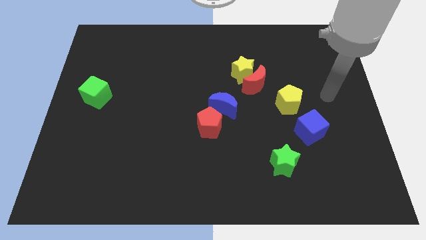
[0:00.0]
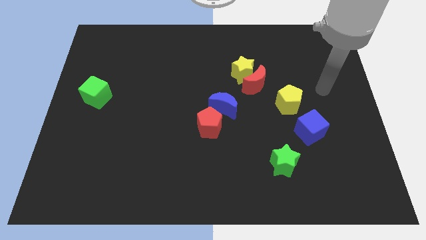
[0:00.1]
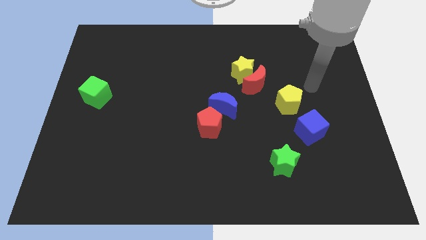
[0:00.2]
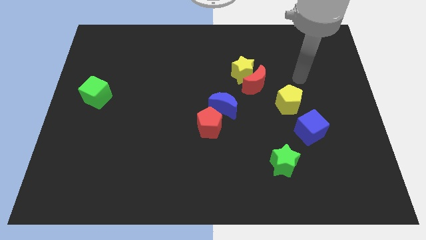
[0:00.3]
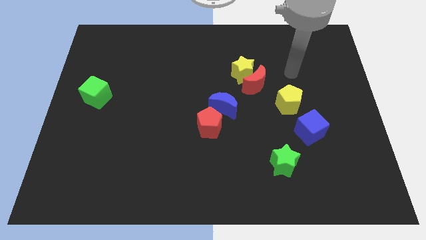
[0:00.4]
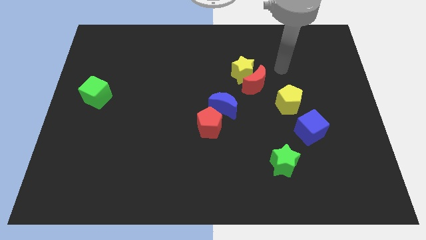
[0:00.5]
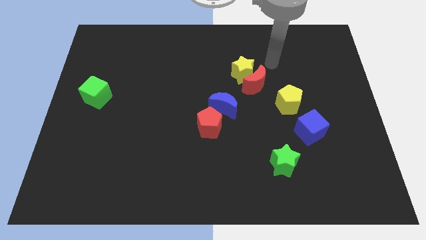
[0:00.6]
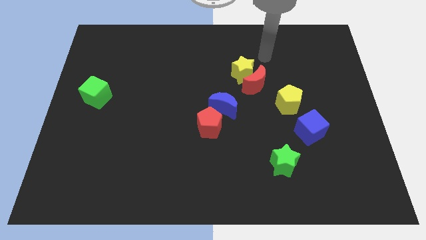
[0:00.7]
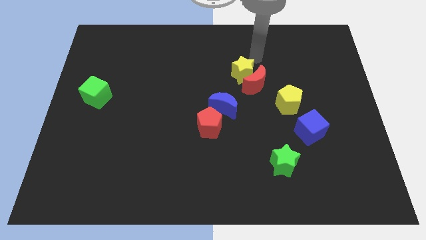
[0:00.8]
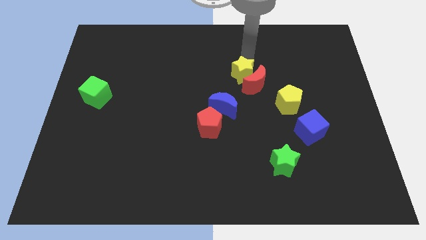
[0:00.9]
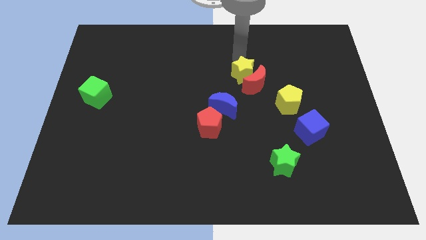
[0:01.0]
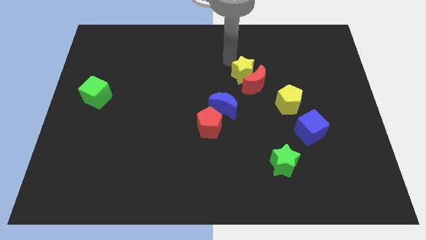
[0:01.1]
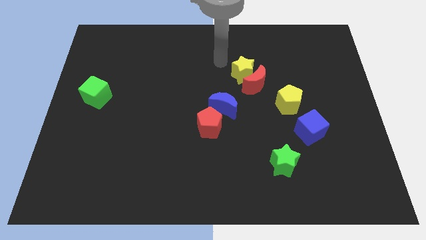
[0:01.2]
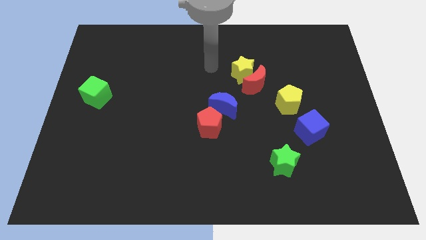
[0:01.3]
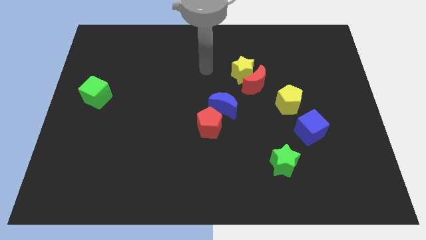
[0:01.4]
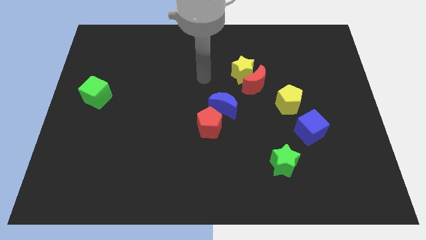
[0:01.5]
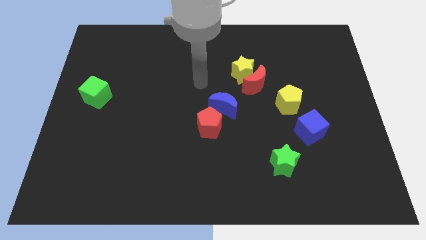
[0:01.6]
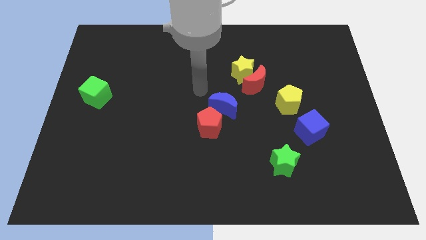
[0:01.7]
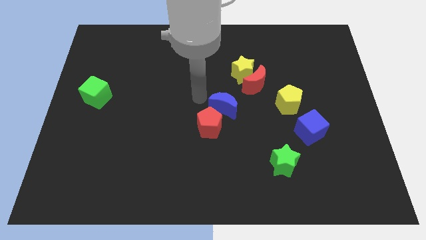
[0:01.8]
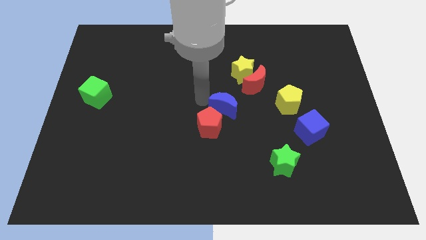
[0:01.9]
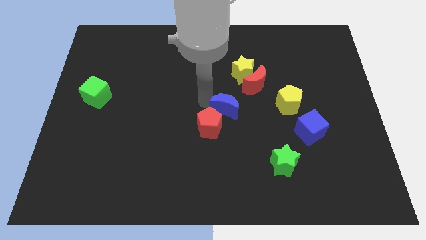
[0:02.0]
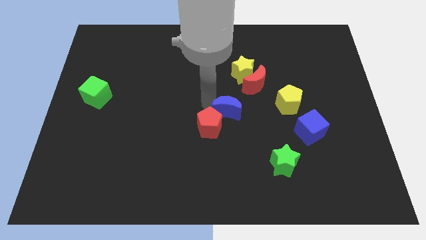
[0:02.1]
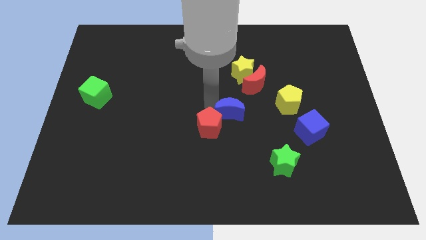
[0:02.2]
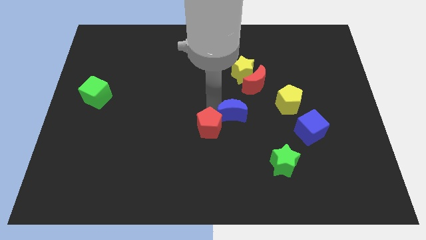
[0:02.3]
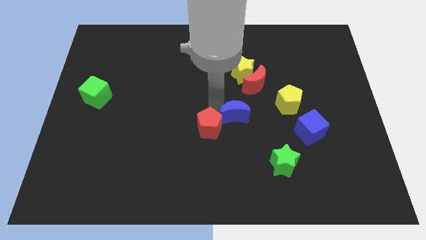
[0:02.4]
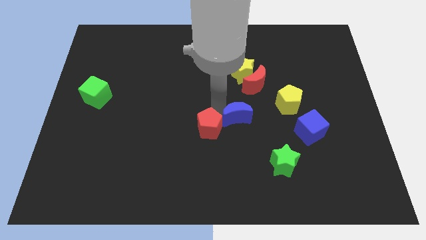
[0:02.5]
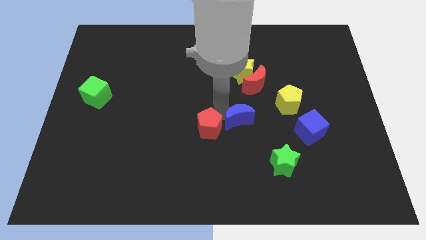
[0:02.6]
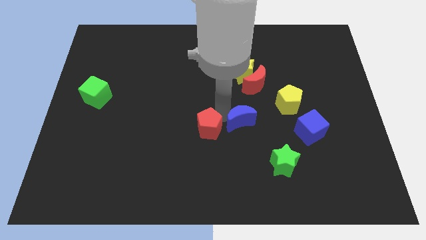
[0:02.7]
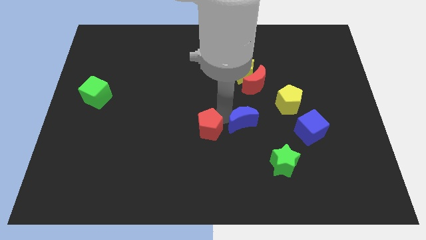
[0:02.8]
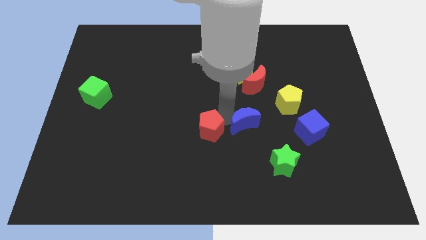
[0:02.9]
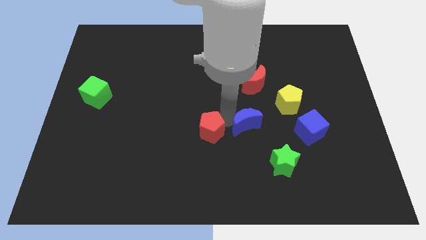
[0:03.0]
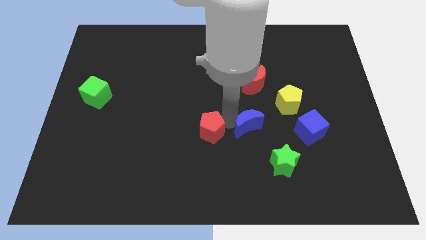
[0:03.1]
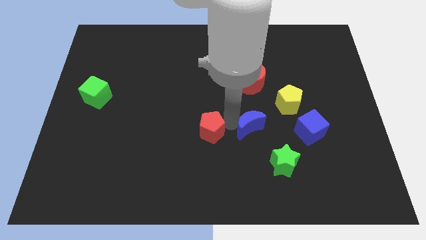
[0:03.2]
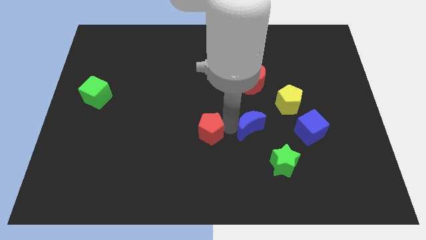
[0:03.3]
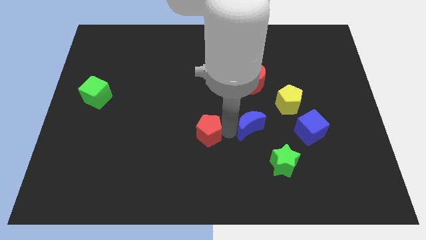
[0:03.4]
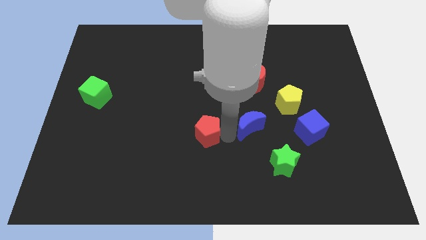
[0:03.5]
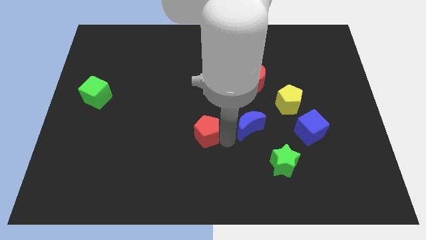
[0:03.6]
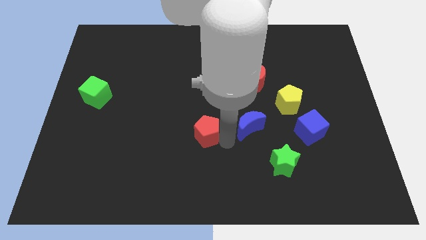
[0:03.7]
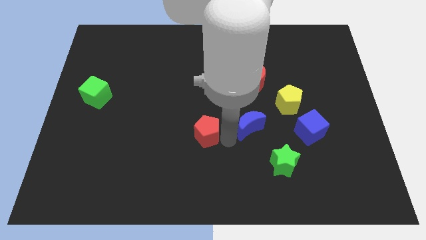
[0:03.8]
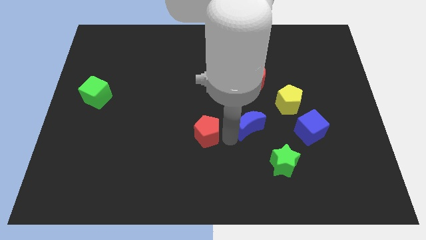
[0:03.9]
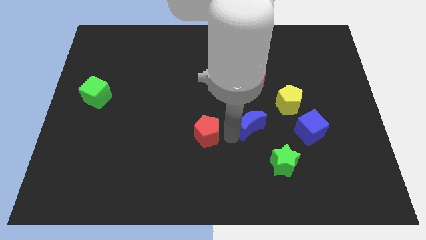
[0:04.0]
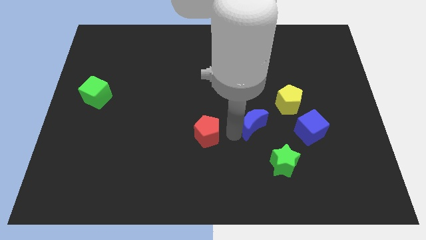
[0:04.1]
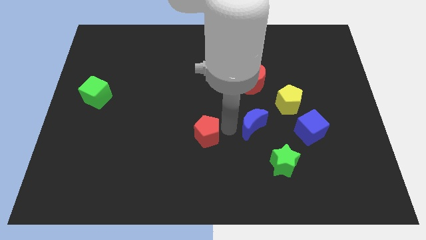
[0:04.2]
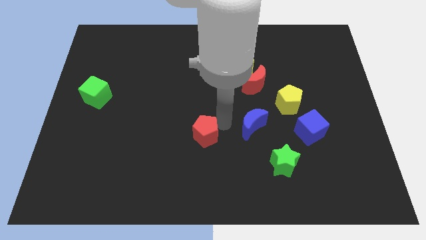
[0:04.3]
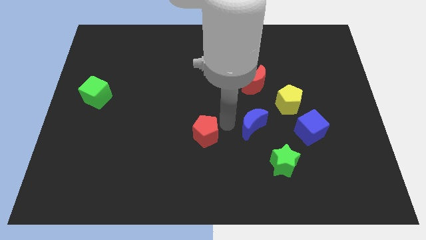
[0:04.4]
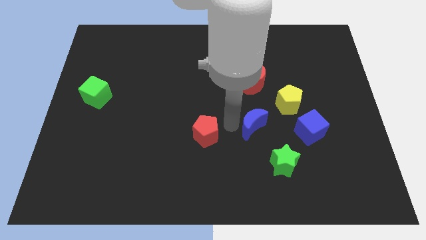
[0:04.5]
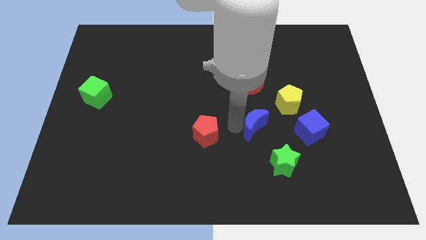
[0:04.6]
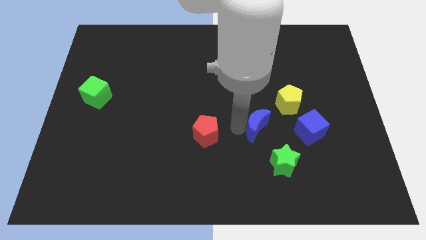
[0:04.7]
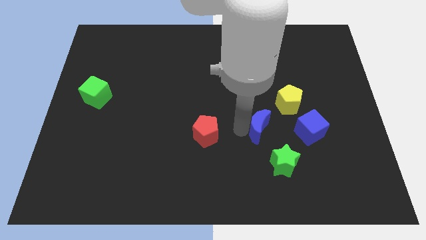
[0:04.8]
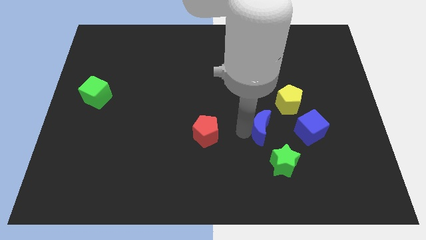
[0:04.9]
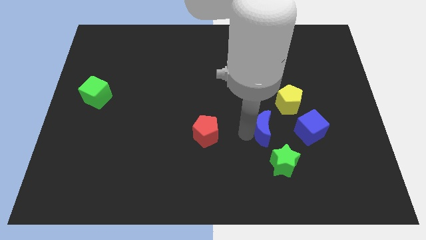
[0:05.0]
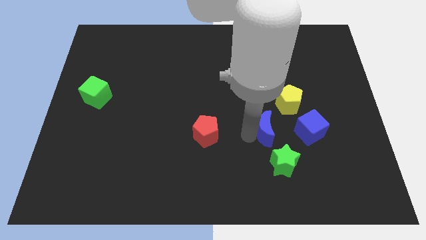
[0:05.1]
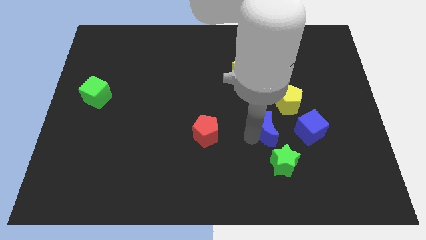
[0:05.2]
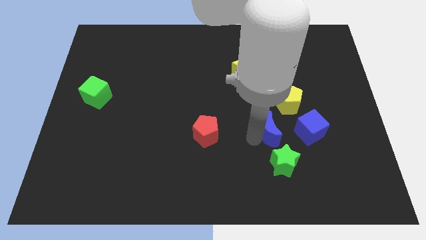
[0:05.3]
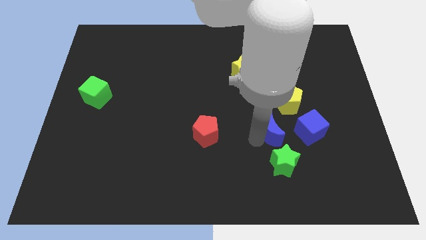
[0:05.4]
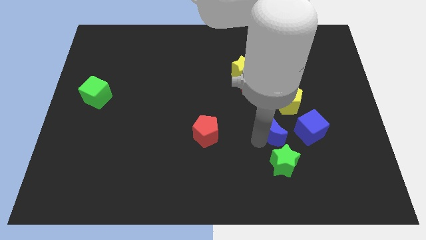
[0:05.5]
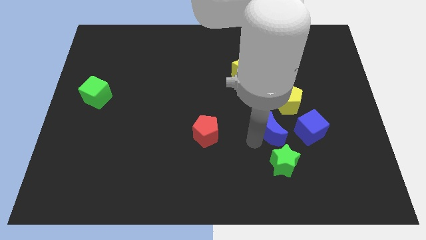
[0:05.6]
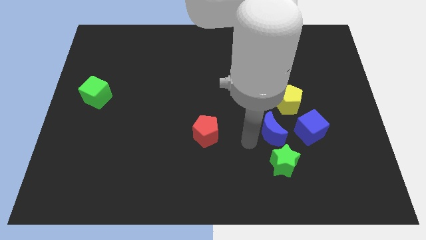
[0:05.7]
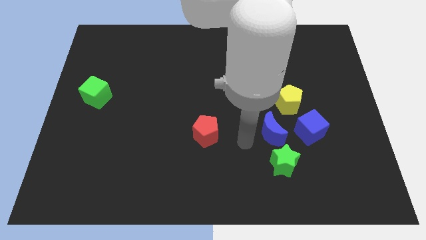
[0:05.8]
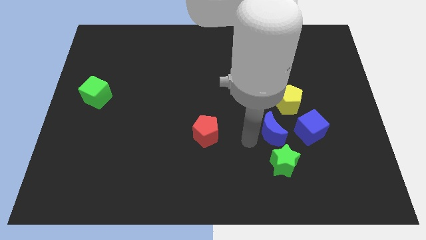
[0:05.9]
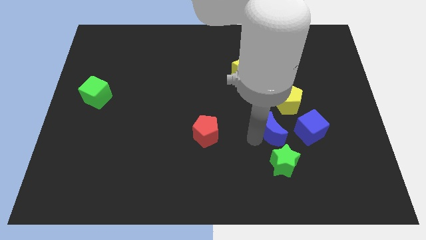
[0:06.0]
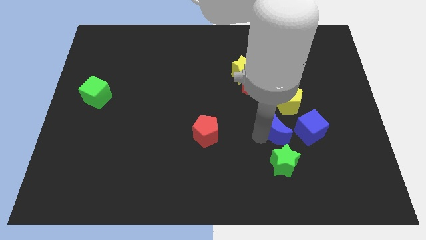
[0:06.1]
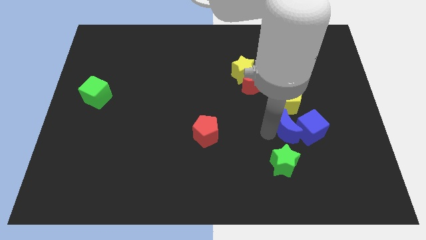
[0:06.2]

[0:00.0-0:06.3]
push the blue moon close to the blue cube

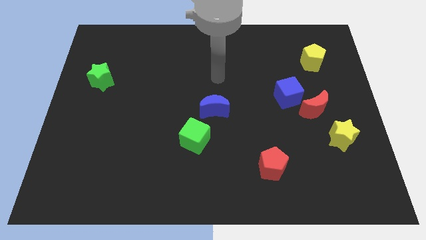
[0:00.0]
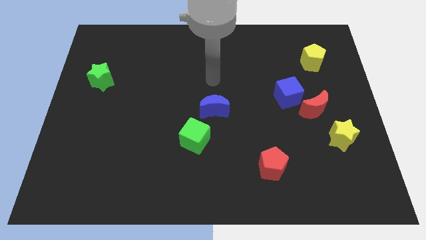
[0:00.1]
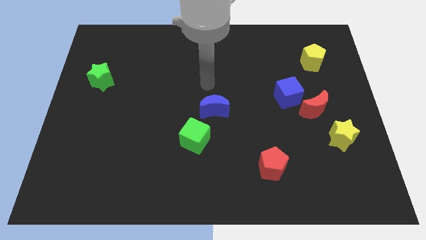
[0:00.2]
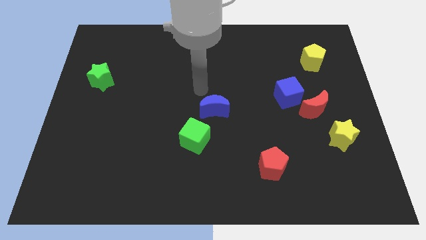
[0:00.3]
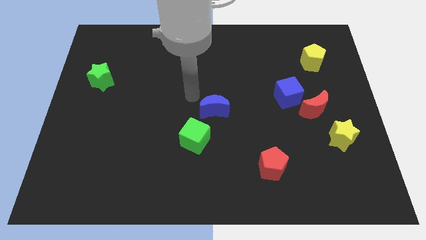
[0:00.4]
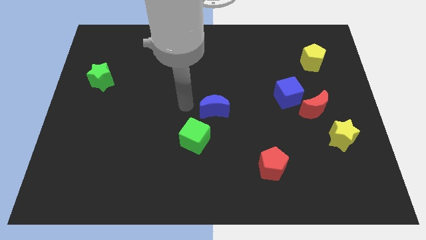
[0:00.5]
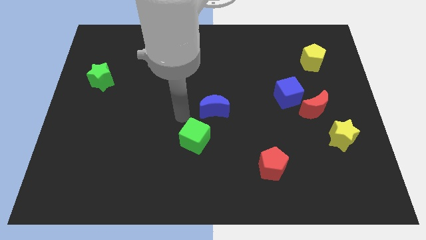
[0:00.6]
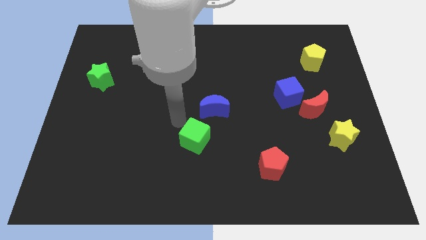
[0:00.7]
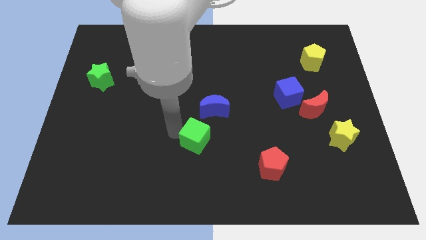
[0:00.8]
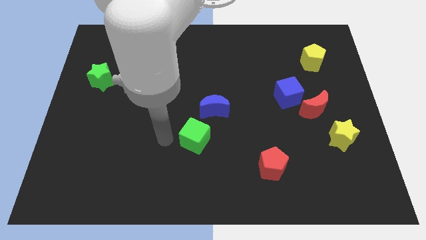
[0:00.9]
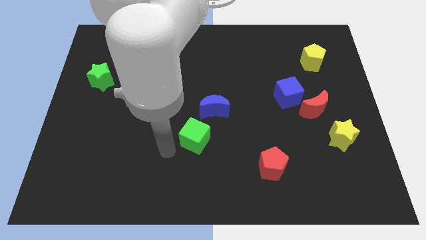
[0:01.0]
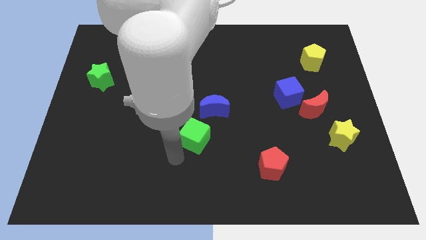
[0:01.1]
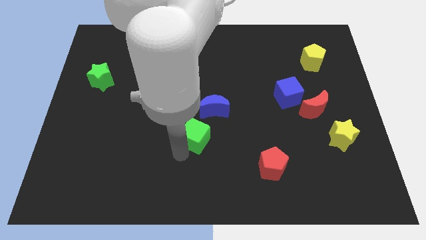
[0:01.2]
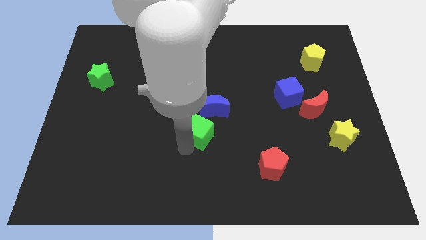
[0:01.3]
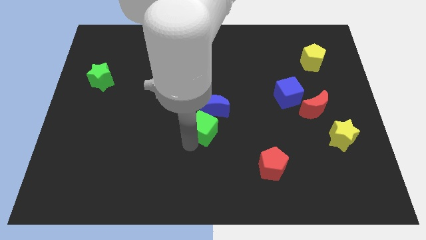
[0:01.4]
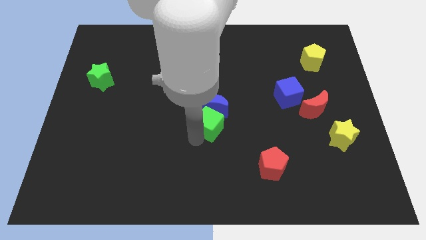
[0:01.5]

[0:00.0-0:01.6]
slide the green cube next to the blue moon
